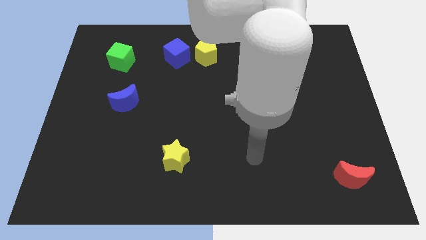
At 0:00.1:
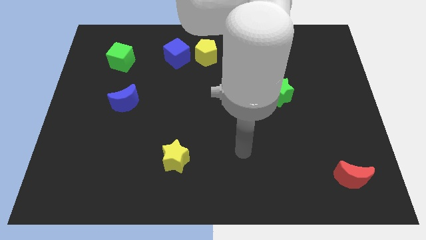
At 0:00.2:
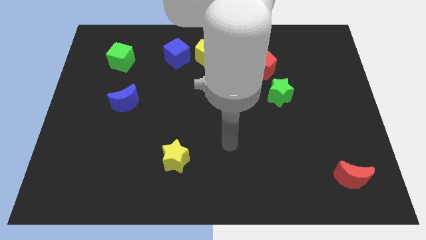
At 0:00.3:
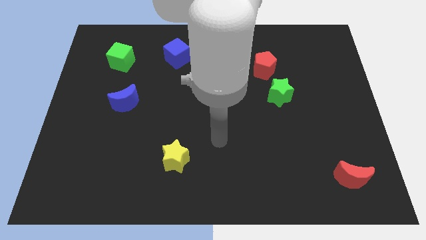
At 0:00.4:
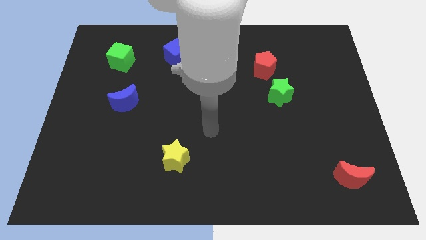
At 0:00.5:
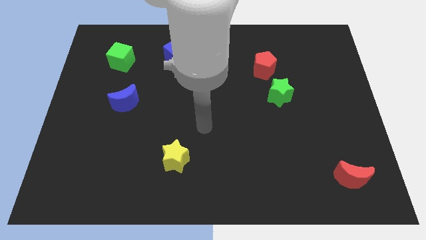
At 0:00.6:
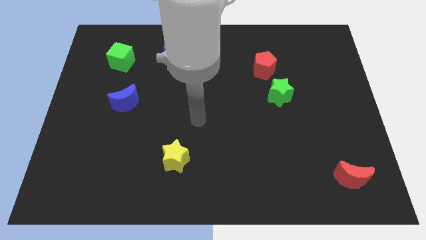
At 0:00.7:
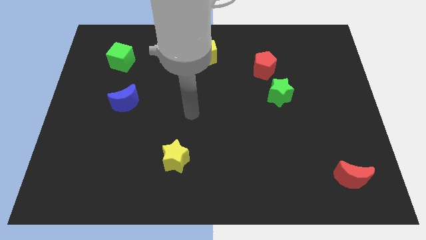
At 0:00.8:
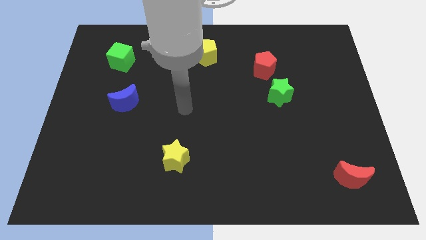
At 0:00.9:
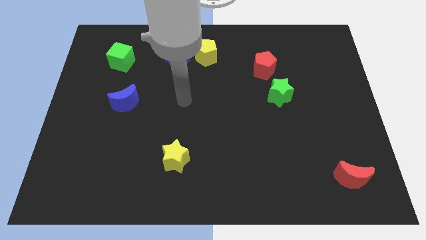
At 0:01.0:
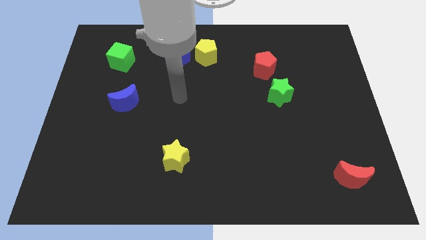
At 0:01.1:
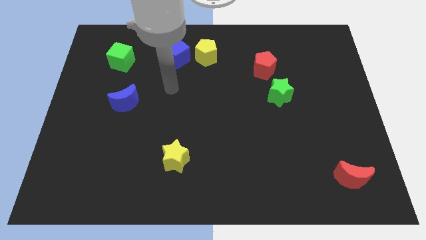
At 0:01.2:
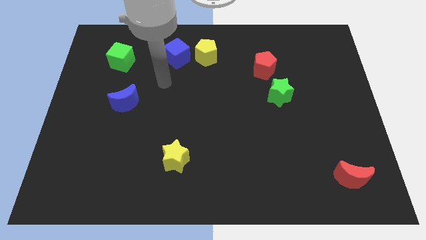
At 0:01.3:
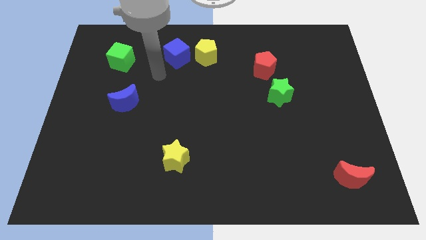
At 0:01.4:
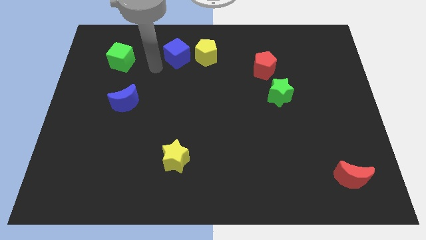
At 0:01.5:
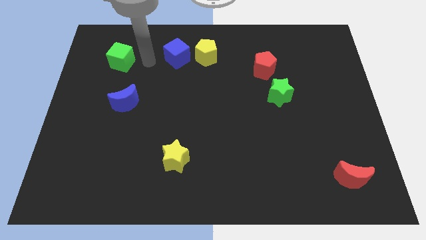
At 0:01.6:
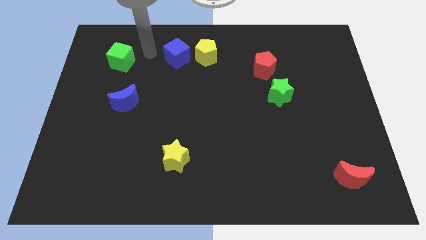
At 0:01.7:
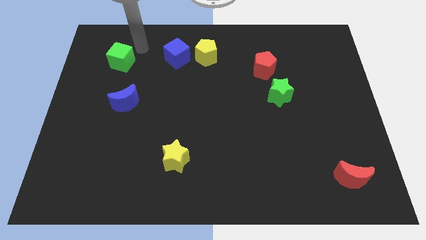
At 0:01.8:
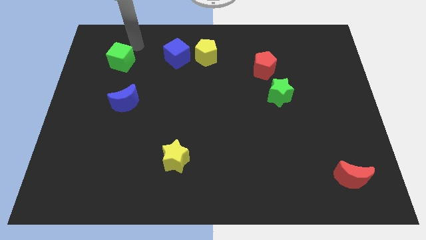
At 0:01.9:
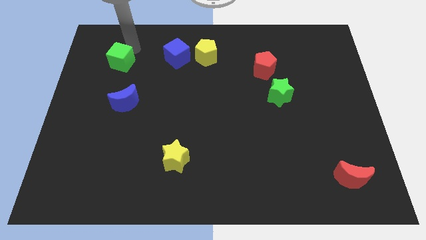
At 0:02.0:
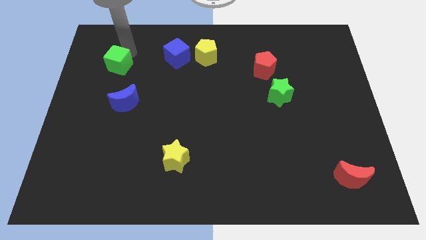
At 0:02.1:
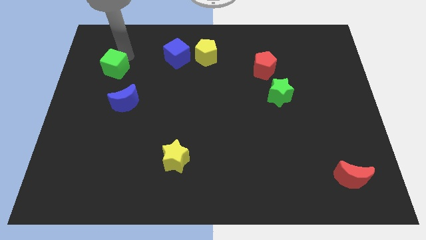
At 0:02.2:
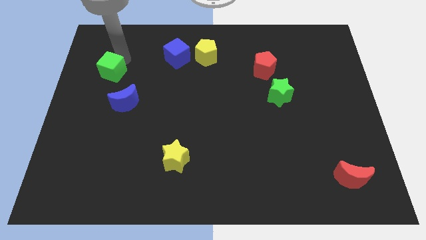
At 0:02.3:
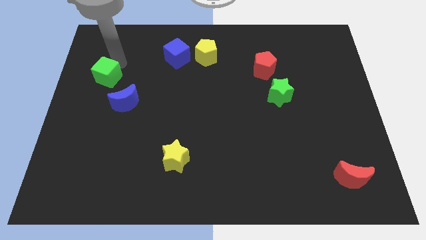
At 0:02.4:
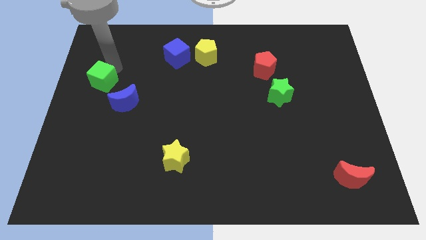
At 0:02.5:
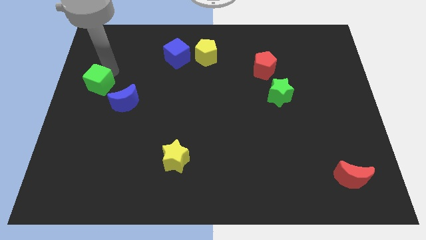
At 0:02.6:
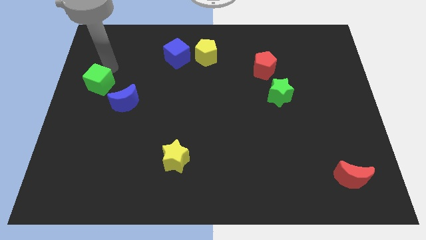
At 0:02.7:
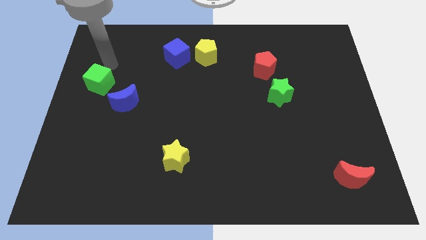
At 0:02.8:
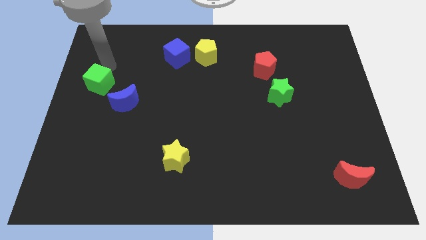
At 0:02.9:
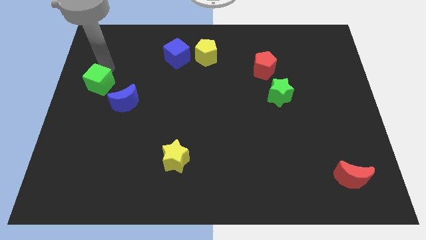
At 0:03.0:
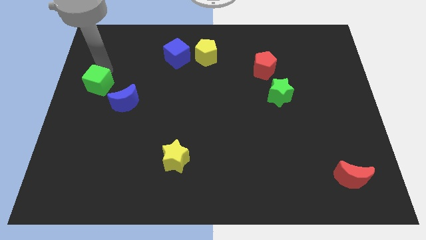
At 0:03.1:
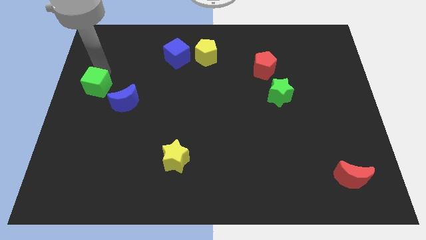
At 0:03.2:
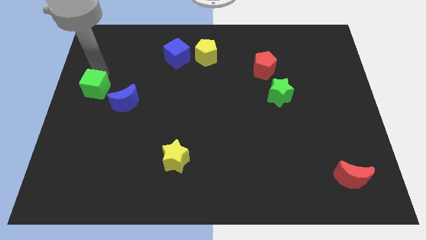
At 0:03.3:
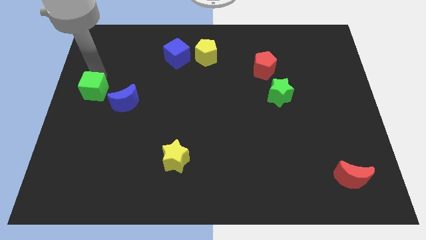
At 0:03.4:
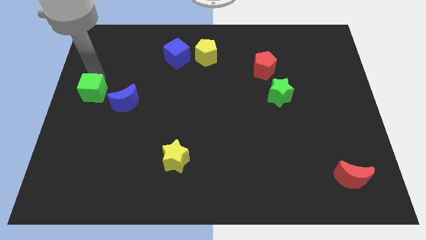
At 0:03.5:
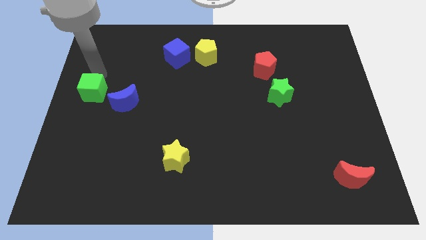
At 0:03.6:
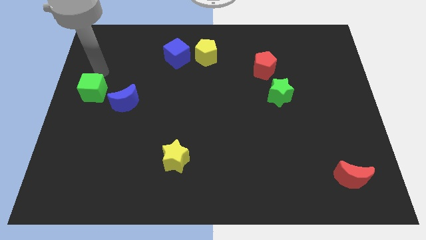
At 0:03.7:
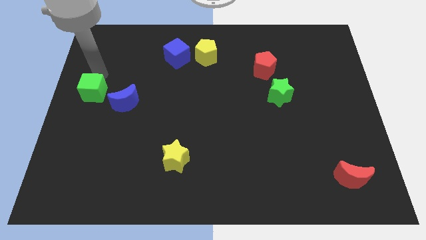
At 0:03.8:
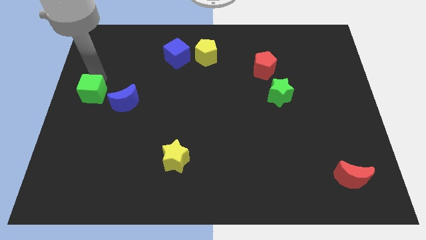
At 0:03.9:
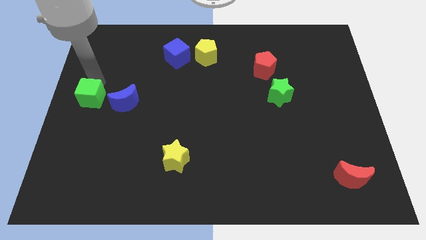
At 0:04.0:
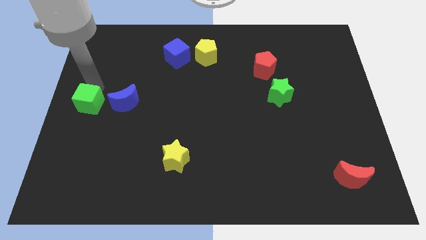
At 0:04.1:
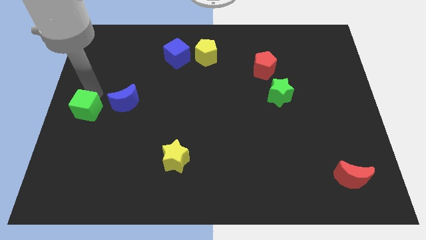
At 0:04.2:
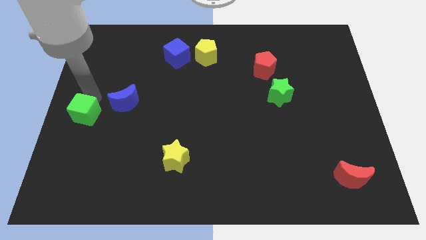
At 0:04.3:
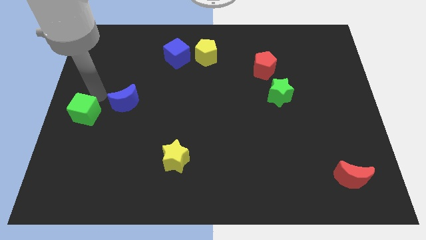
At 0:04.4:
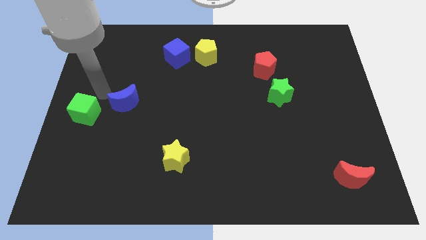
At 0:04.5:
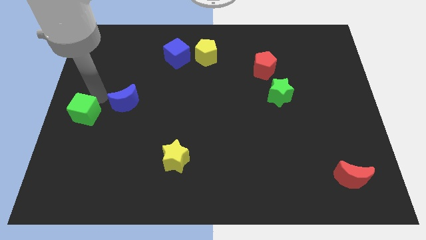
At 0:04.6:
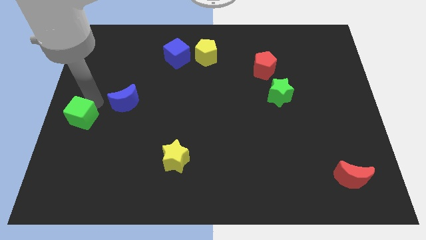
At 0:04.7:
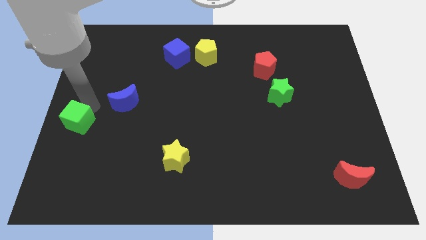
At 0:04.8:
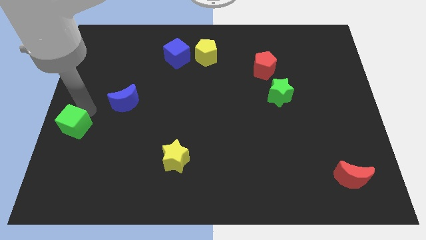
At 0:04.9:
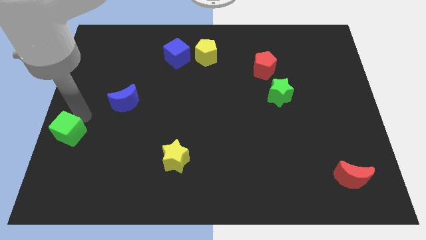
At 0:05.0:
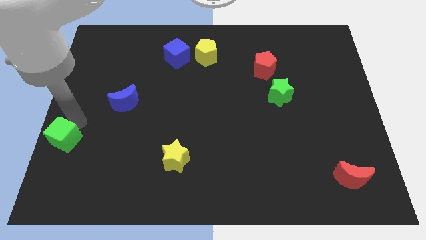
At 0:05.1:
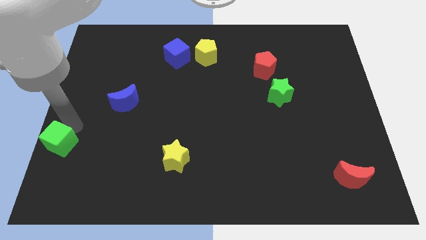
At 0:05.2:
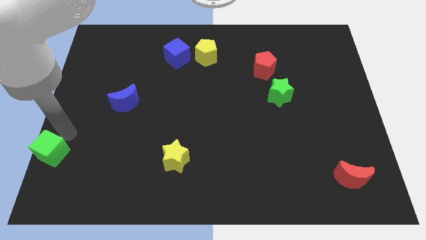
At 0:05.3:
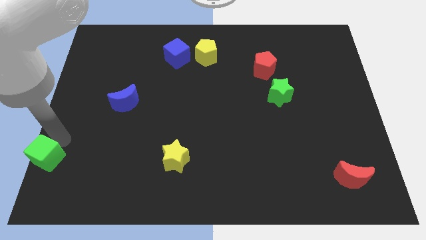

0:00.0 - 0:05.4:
slide the green cube to the bottom left of the board
